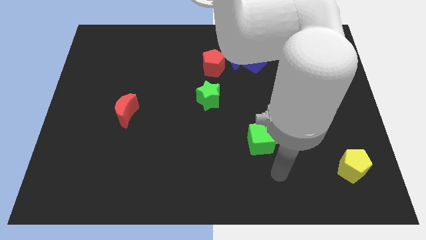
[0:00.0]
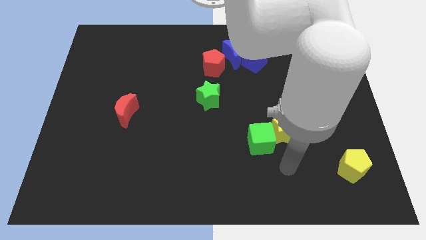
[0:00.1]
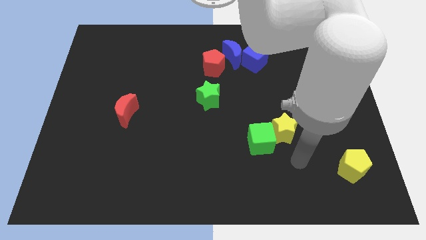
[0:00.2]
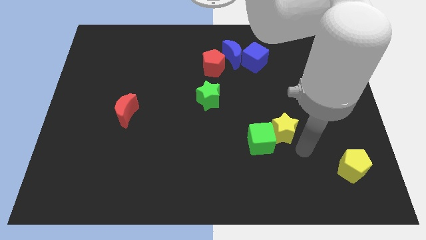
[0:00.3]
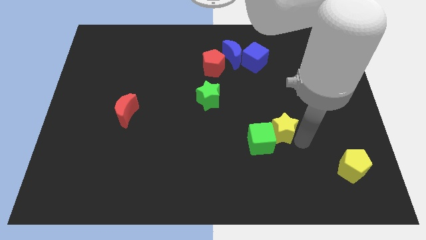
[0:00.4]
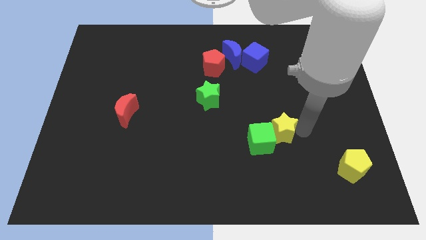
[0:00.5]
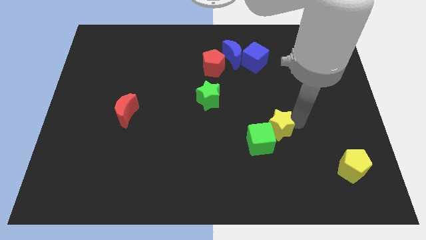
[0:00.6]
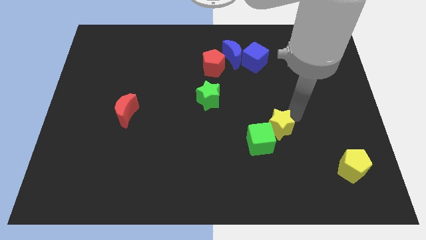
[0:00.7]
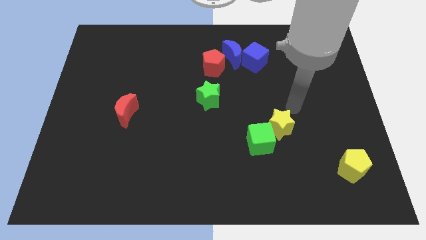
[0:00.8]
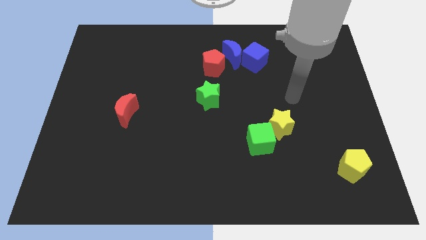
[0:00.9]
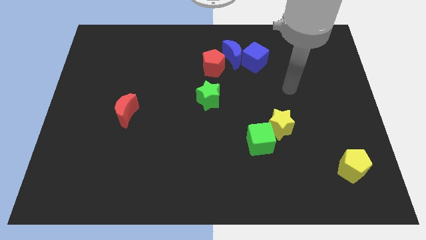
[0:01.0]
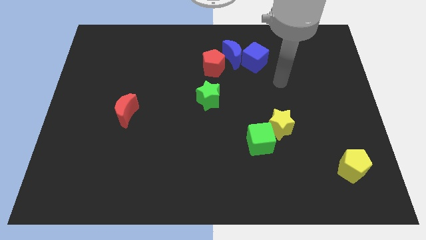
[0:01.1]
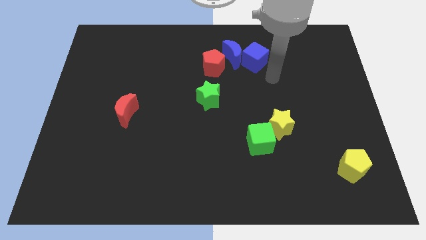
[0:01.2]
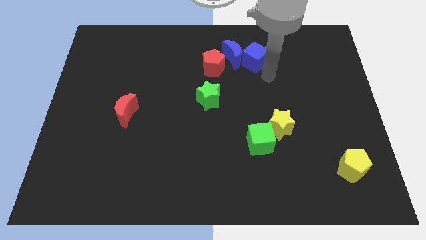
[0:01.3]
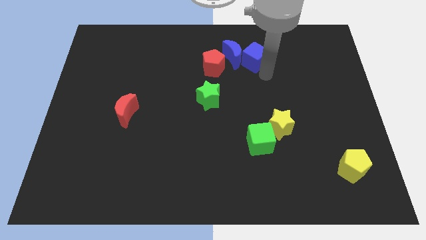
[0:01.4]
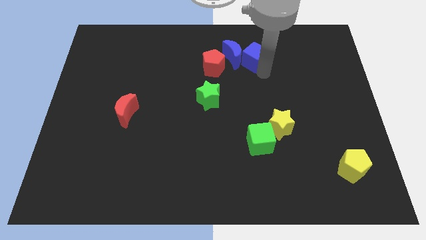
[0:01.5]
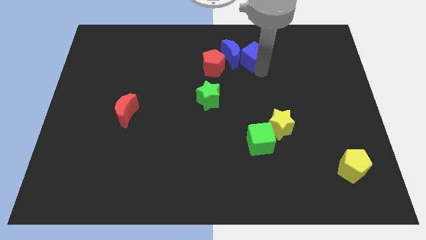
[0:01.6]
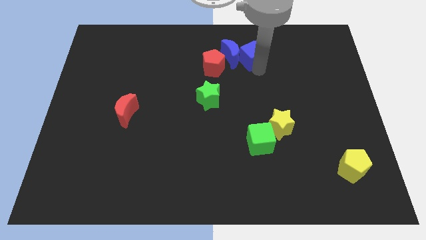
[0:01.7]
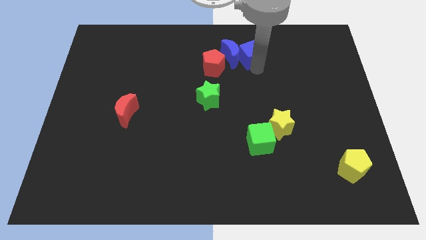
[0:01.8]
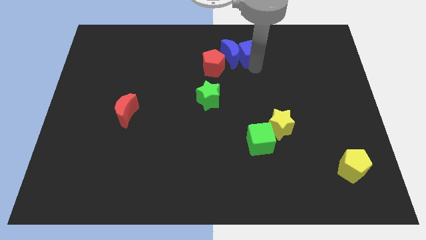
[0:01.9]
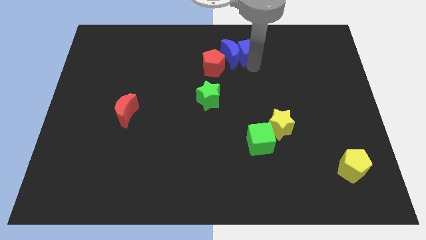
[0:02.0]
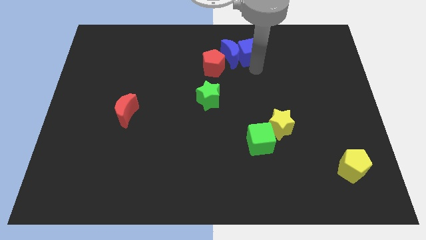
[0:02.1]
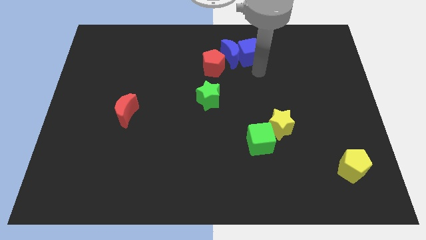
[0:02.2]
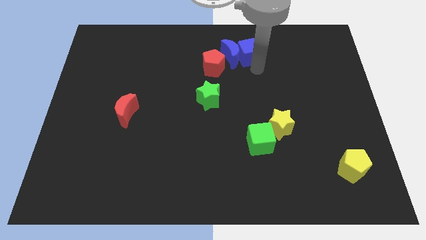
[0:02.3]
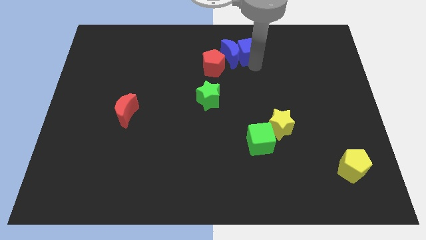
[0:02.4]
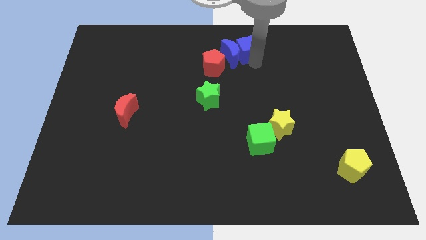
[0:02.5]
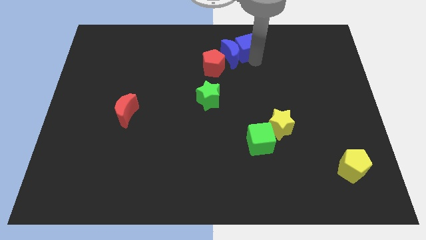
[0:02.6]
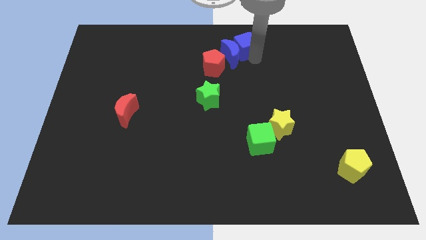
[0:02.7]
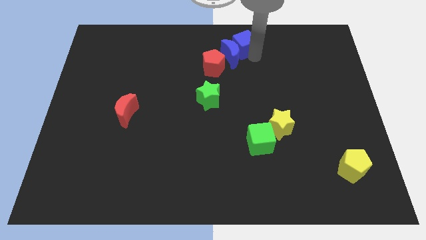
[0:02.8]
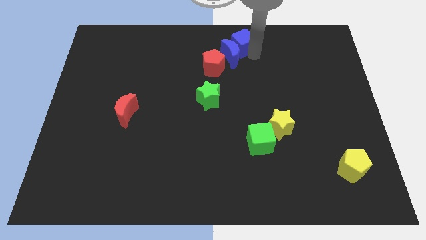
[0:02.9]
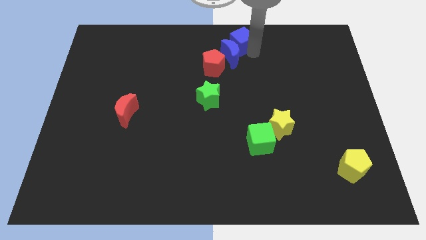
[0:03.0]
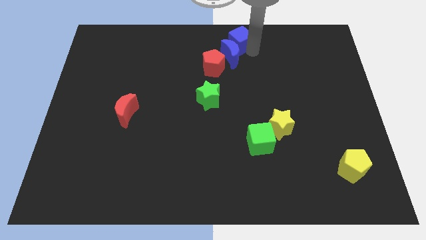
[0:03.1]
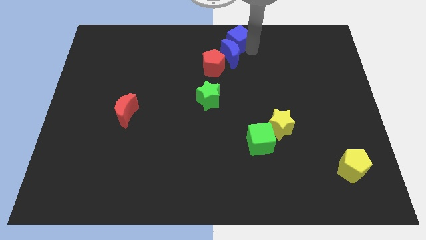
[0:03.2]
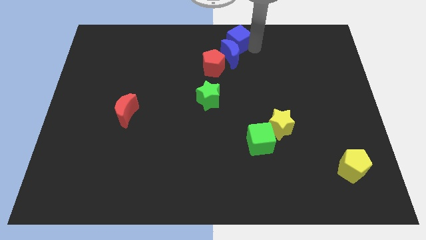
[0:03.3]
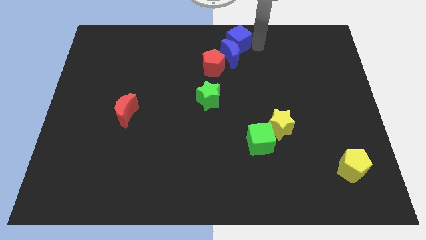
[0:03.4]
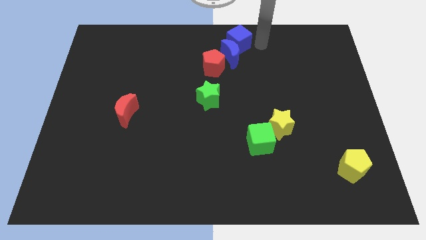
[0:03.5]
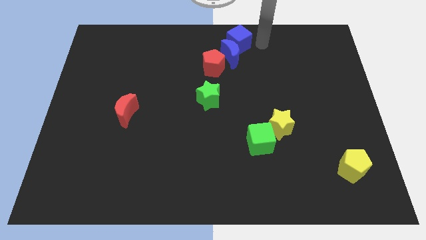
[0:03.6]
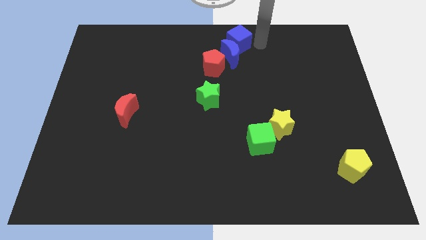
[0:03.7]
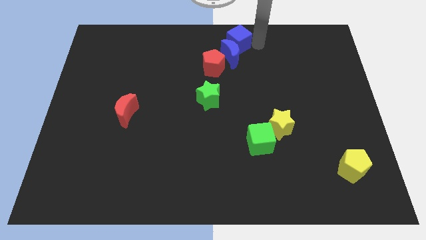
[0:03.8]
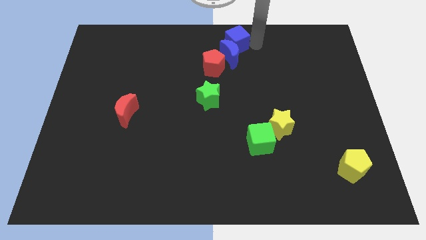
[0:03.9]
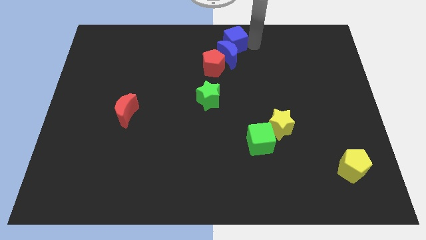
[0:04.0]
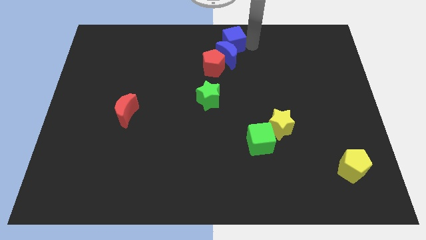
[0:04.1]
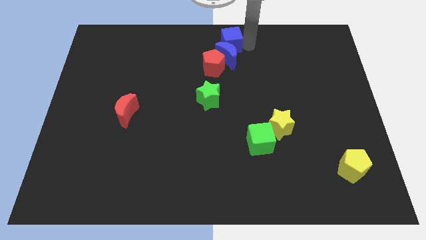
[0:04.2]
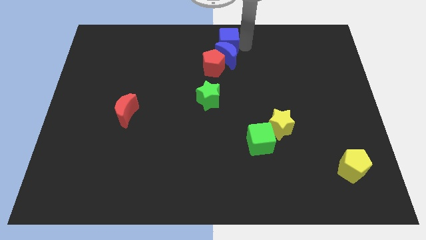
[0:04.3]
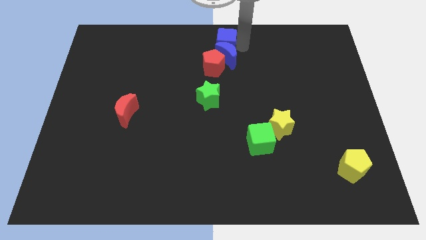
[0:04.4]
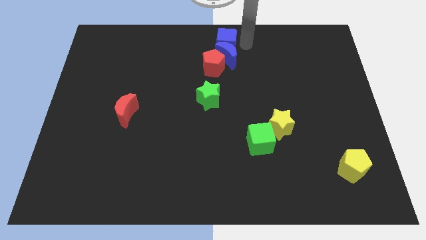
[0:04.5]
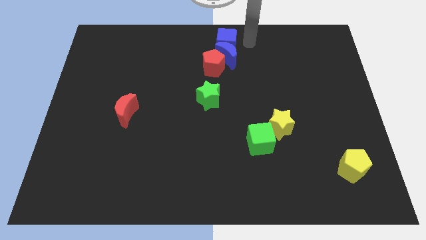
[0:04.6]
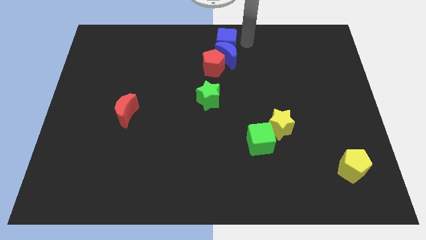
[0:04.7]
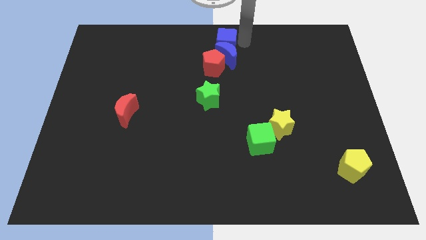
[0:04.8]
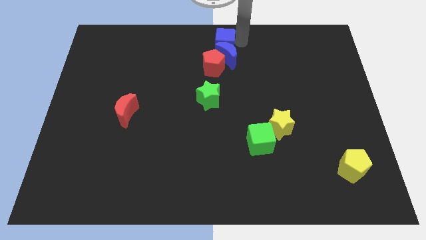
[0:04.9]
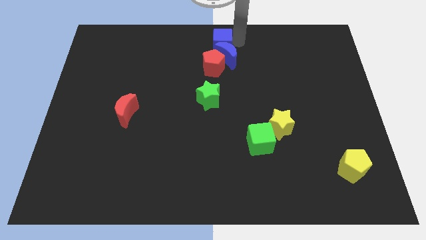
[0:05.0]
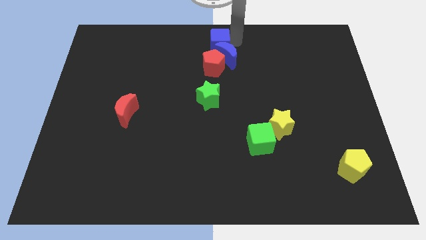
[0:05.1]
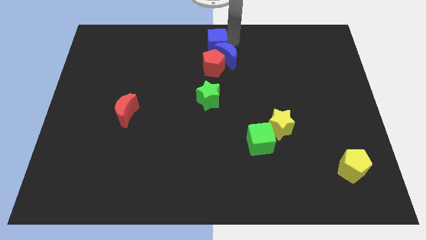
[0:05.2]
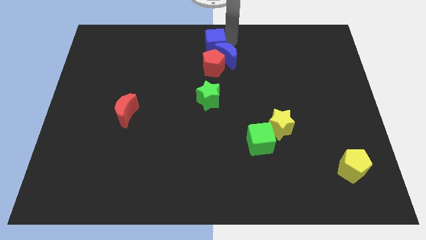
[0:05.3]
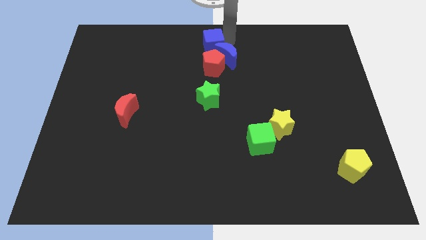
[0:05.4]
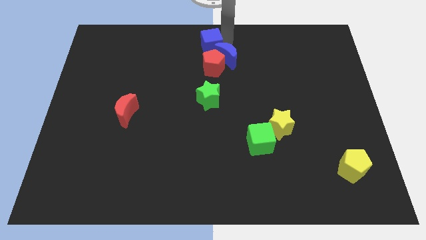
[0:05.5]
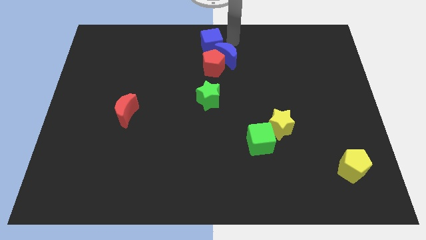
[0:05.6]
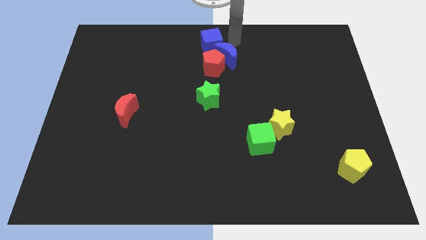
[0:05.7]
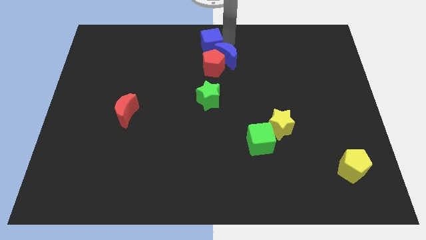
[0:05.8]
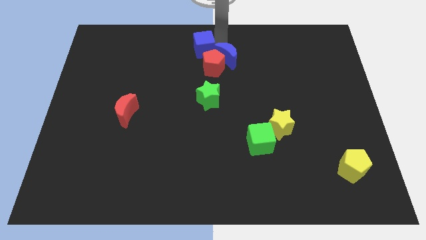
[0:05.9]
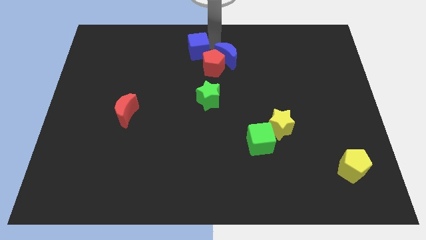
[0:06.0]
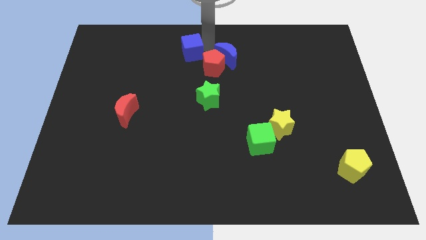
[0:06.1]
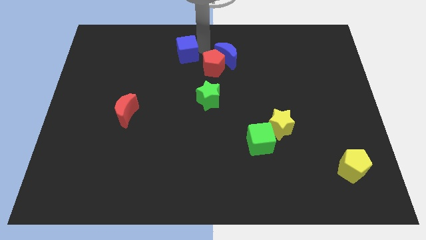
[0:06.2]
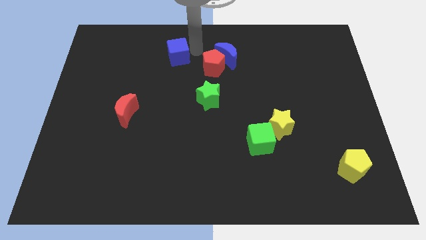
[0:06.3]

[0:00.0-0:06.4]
push the blue cube to the left

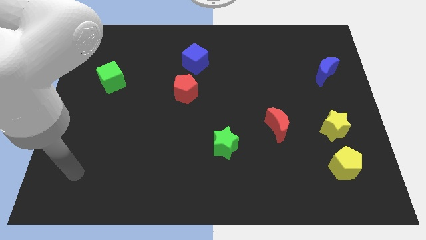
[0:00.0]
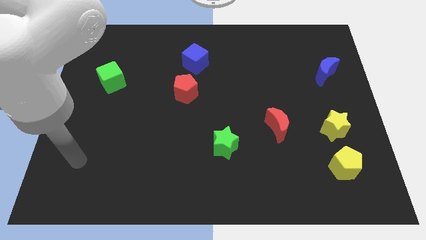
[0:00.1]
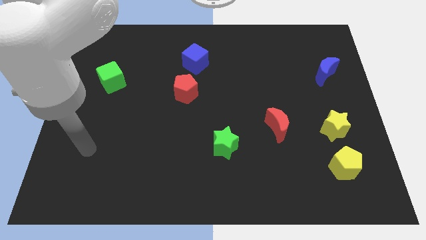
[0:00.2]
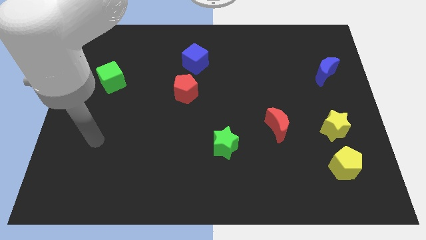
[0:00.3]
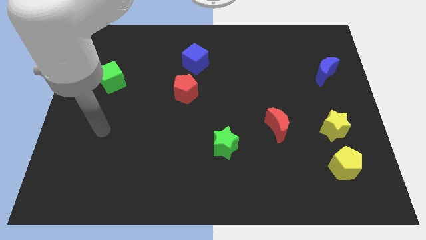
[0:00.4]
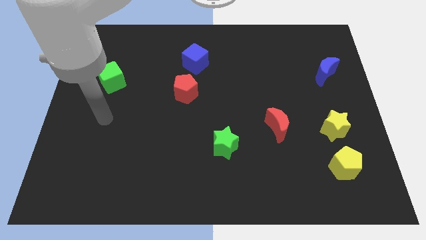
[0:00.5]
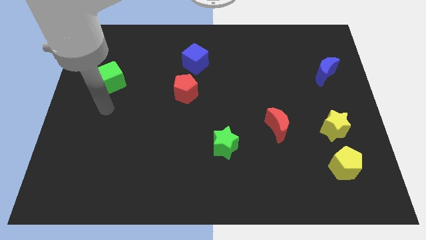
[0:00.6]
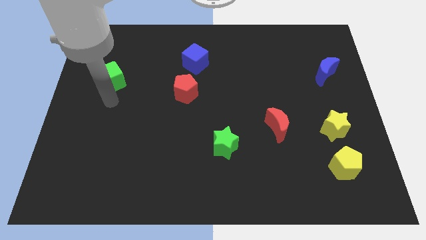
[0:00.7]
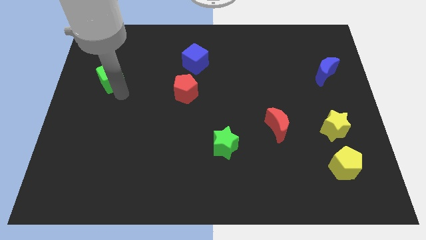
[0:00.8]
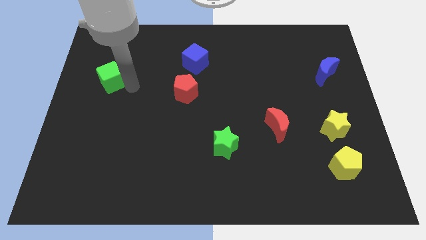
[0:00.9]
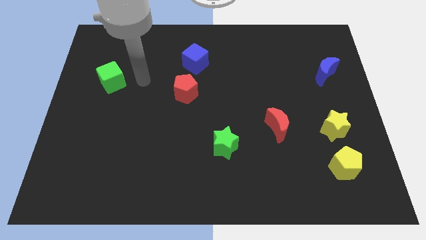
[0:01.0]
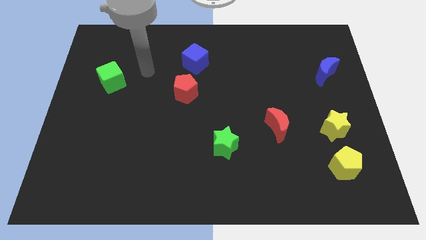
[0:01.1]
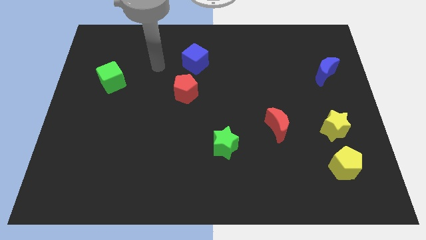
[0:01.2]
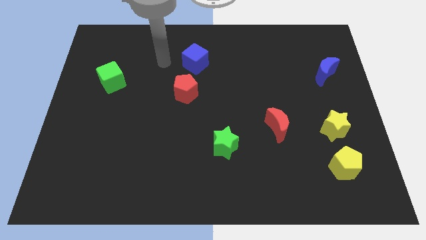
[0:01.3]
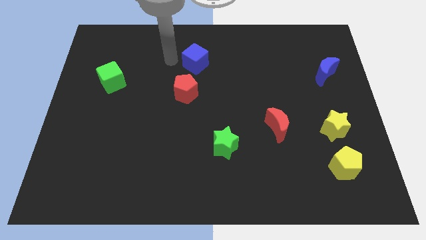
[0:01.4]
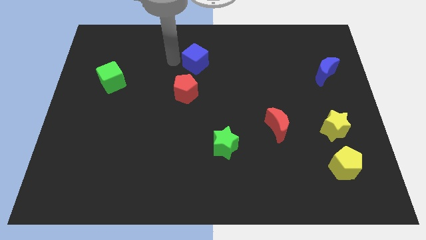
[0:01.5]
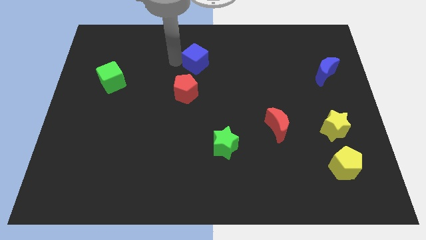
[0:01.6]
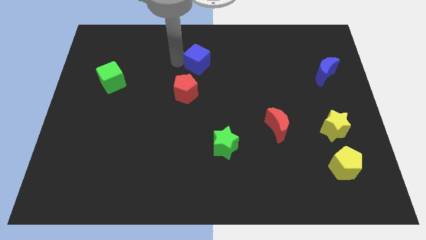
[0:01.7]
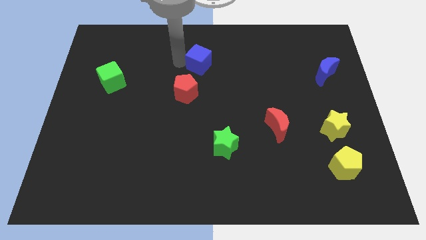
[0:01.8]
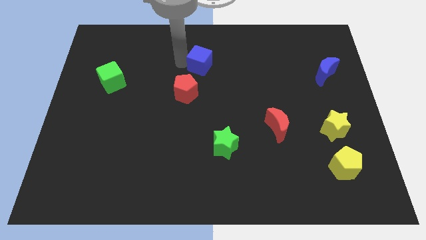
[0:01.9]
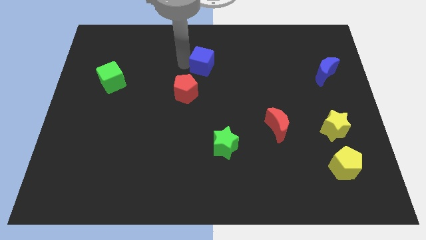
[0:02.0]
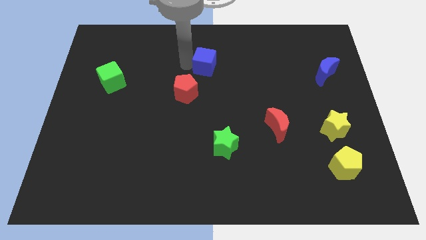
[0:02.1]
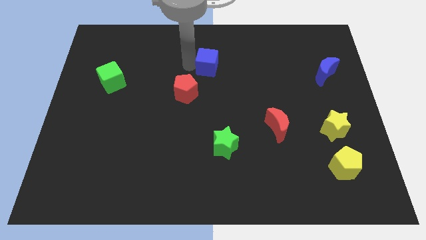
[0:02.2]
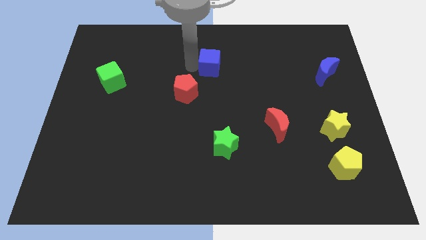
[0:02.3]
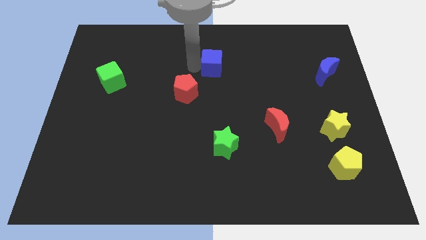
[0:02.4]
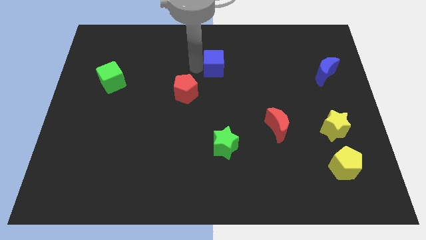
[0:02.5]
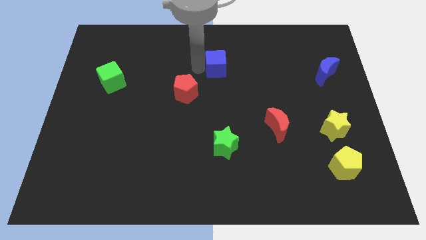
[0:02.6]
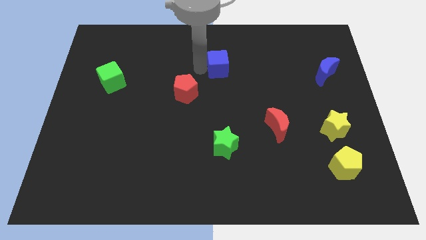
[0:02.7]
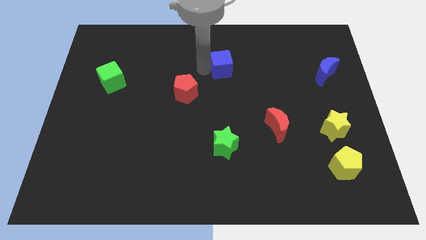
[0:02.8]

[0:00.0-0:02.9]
slide the blue cube somewhat to the right
